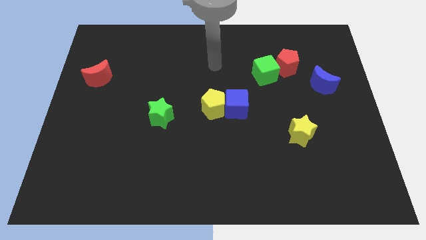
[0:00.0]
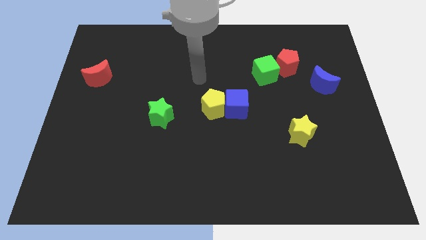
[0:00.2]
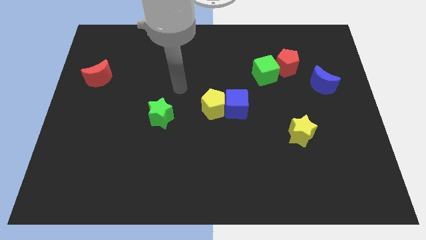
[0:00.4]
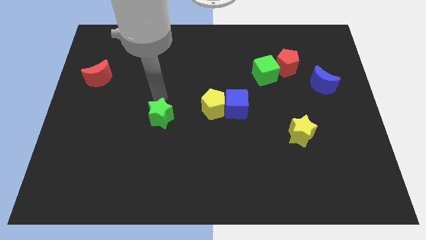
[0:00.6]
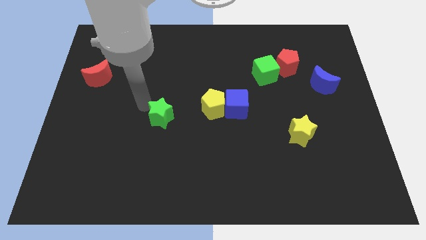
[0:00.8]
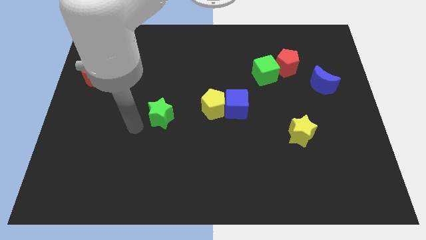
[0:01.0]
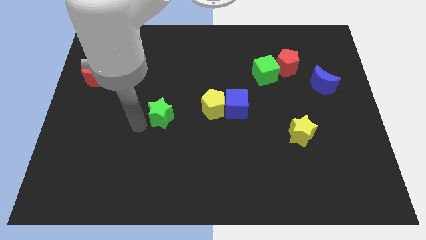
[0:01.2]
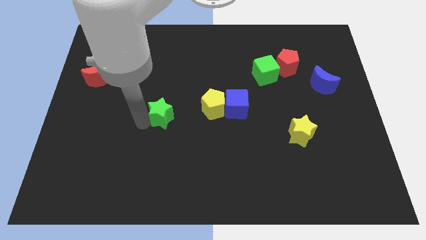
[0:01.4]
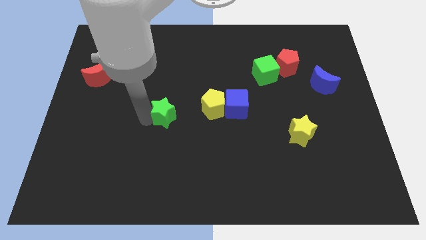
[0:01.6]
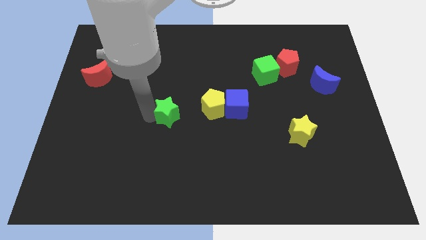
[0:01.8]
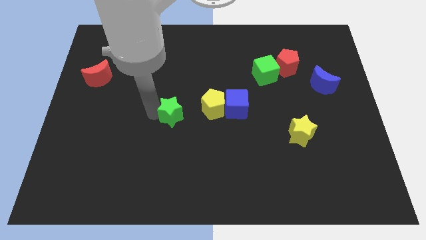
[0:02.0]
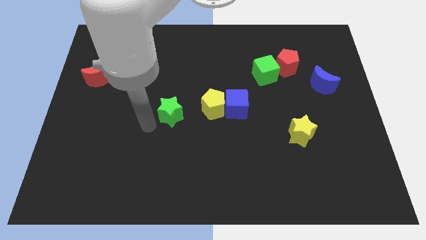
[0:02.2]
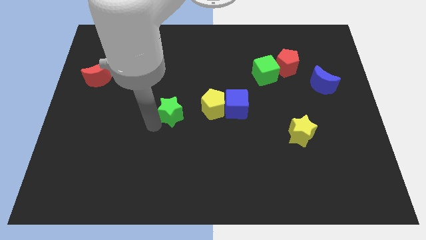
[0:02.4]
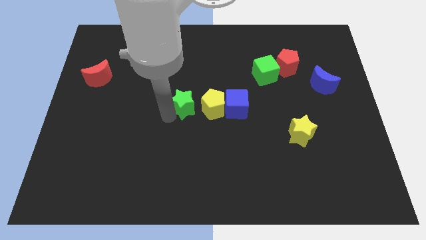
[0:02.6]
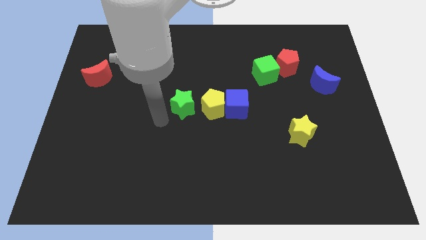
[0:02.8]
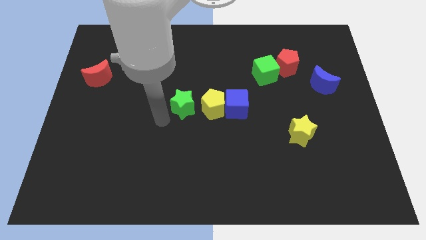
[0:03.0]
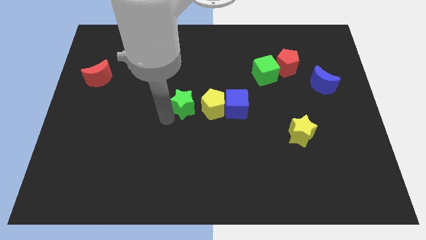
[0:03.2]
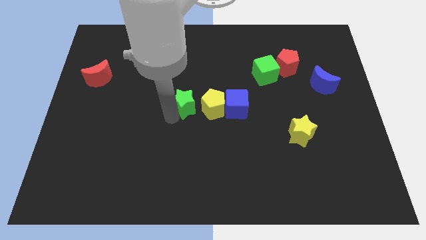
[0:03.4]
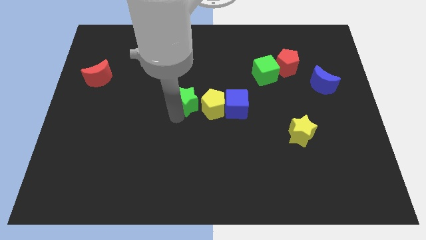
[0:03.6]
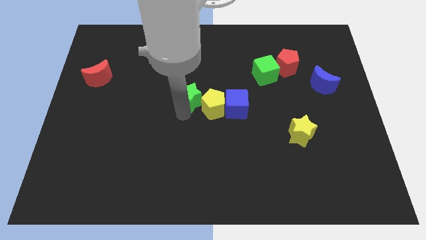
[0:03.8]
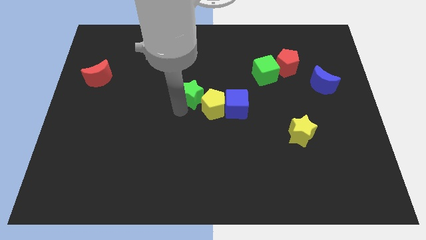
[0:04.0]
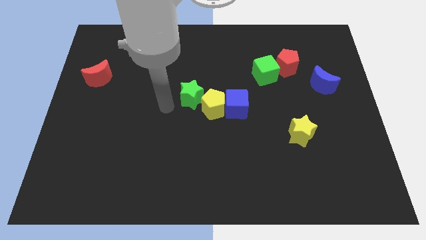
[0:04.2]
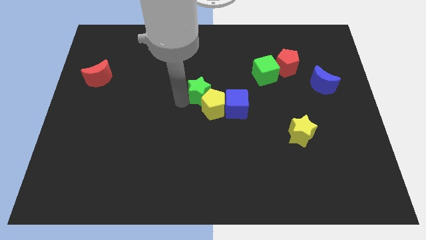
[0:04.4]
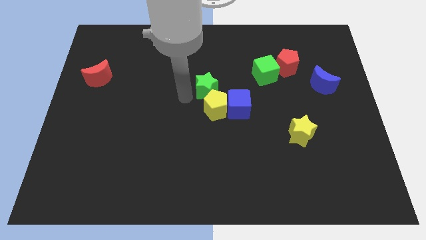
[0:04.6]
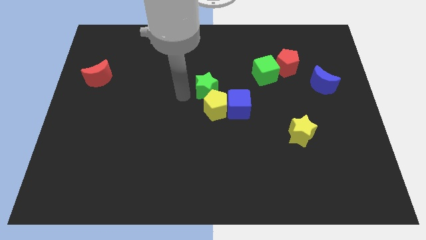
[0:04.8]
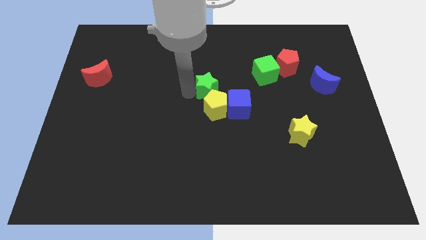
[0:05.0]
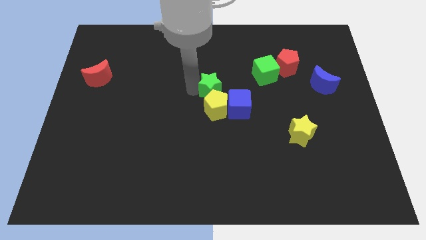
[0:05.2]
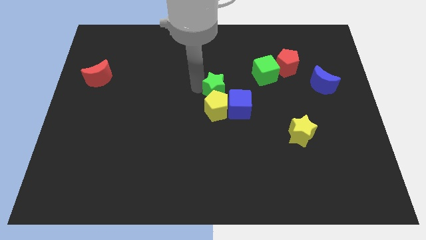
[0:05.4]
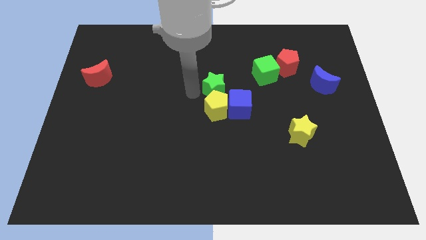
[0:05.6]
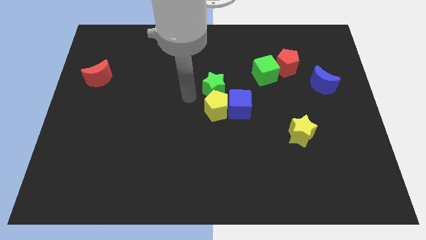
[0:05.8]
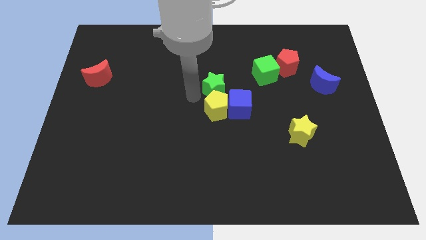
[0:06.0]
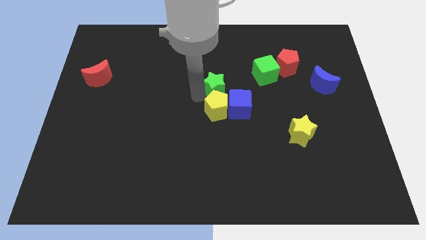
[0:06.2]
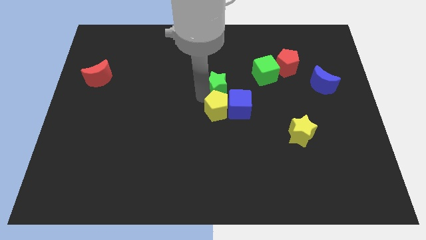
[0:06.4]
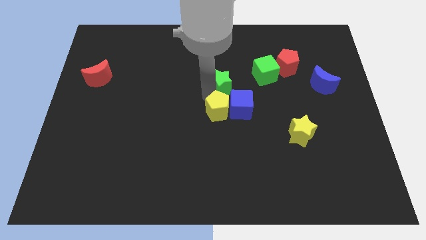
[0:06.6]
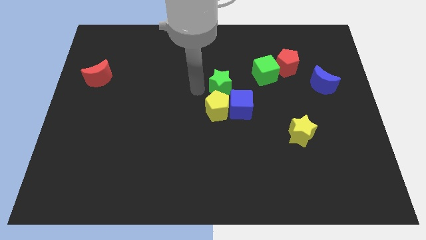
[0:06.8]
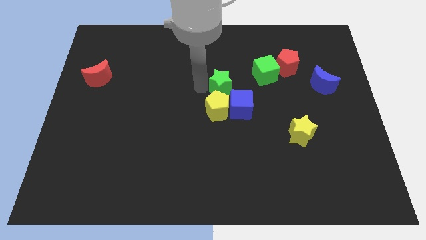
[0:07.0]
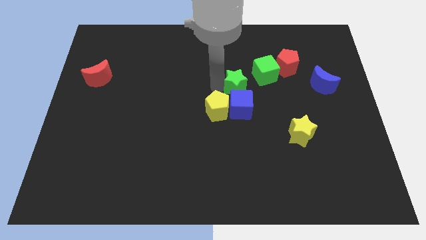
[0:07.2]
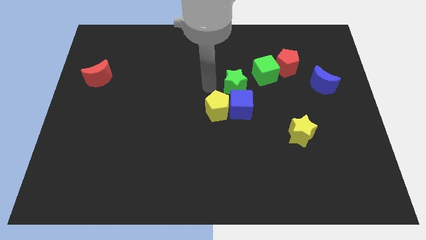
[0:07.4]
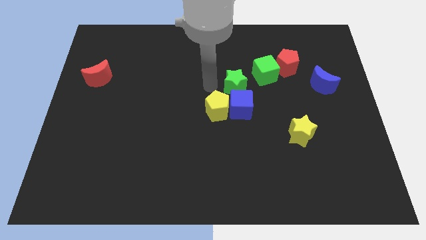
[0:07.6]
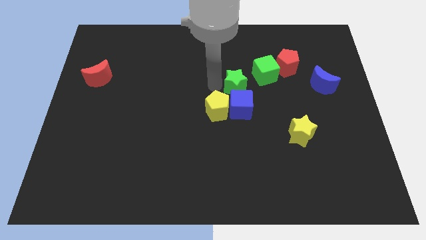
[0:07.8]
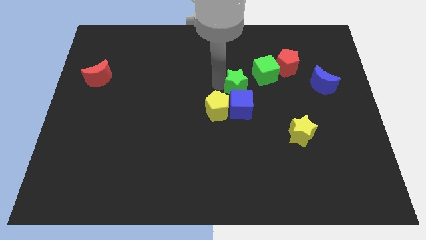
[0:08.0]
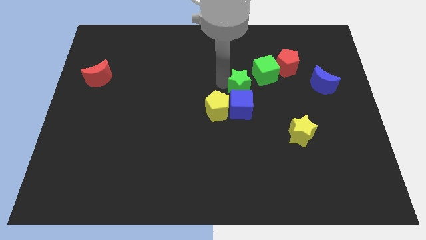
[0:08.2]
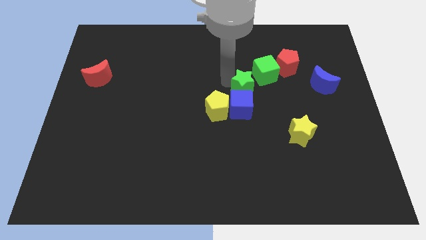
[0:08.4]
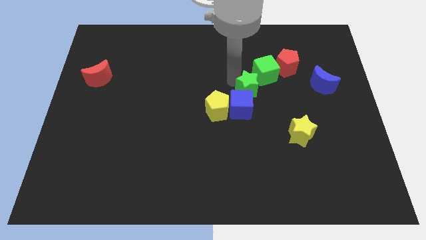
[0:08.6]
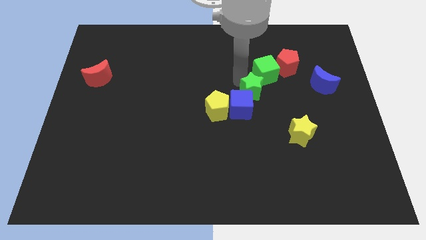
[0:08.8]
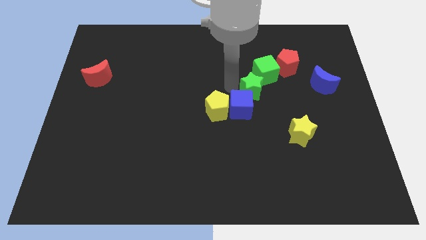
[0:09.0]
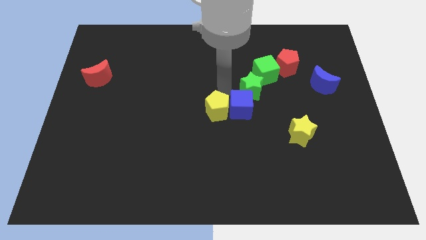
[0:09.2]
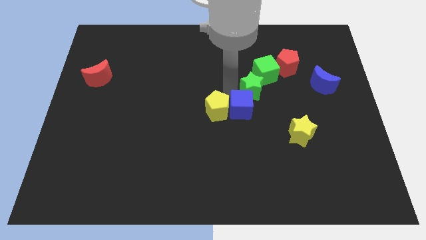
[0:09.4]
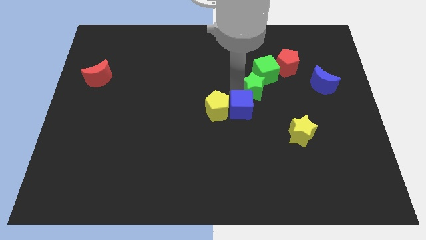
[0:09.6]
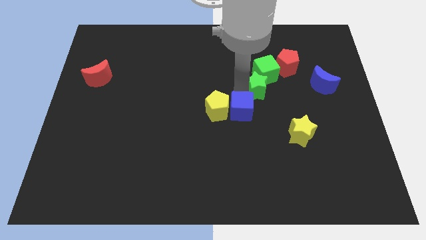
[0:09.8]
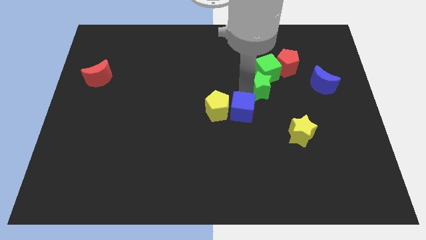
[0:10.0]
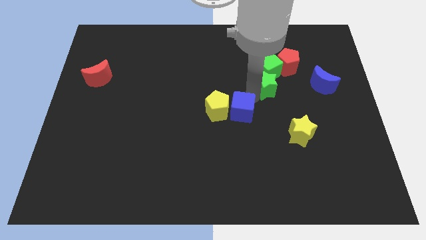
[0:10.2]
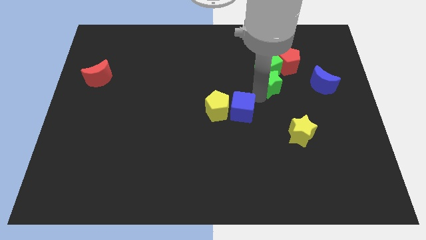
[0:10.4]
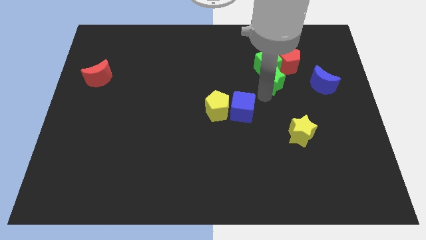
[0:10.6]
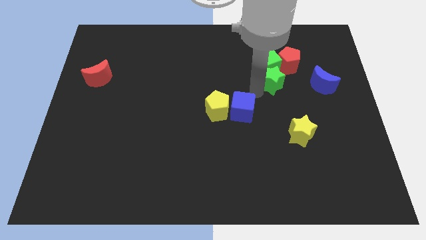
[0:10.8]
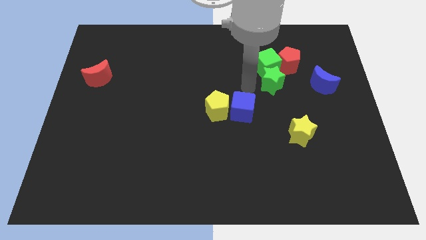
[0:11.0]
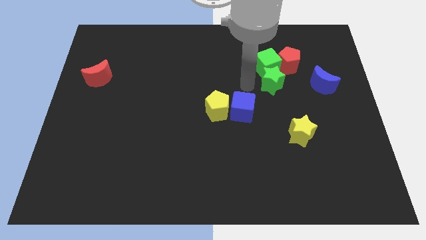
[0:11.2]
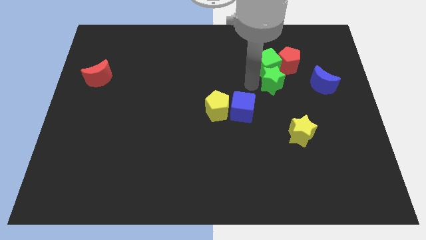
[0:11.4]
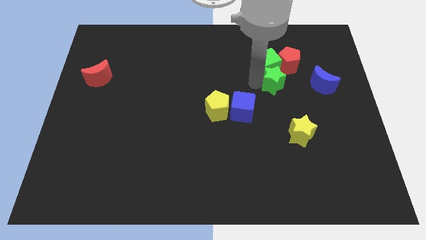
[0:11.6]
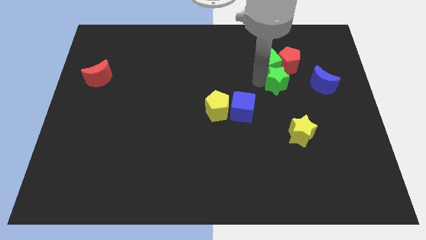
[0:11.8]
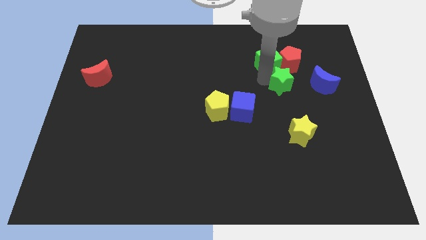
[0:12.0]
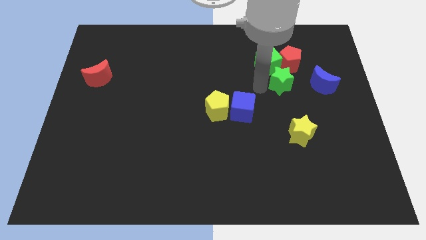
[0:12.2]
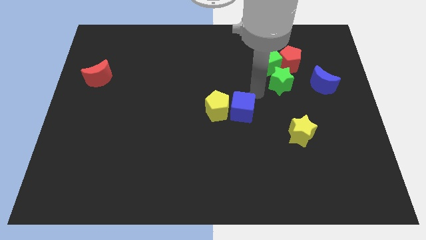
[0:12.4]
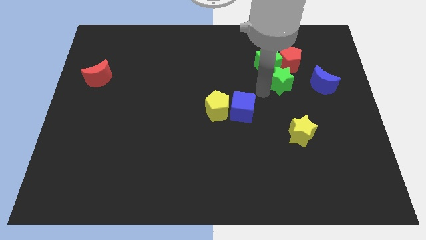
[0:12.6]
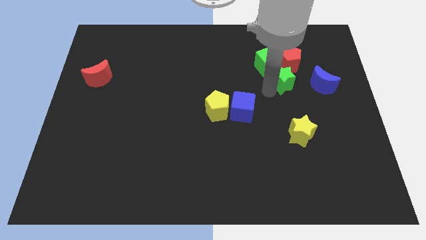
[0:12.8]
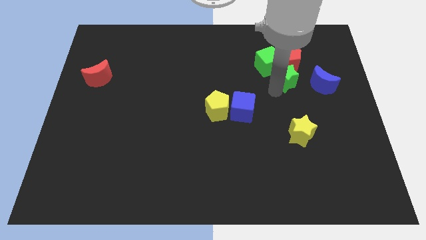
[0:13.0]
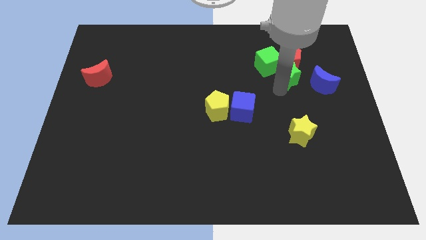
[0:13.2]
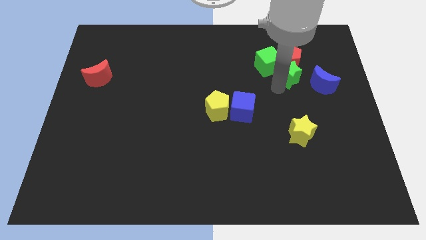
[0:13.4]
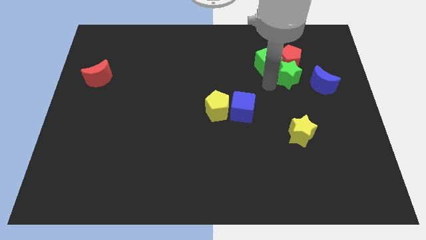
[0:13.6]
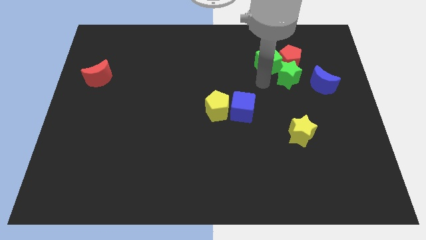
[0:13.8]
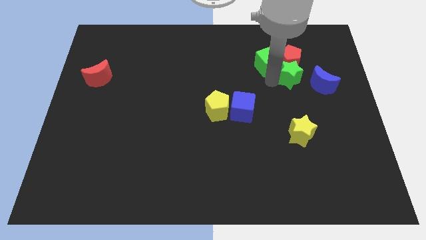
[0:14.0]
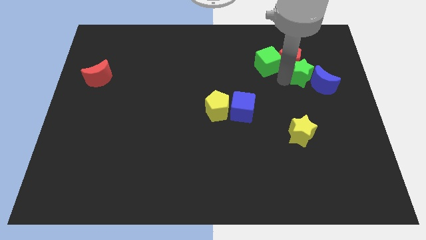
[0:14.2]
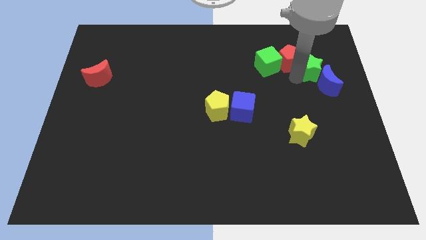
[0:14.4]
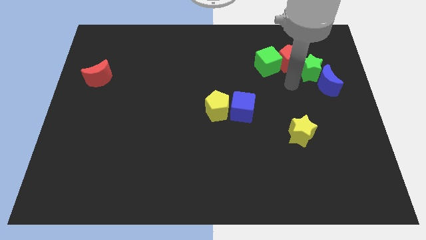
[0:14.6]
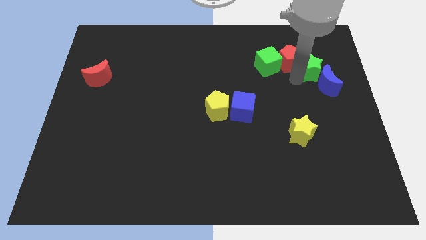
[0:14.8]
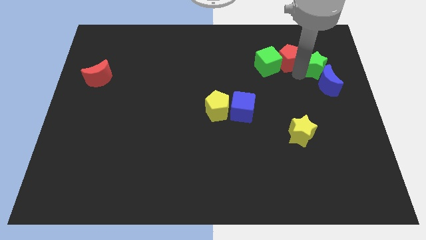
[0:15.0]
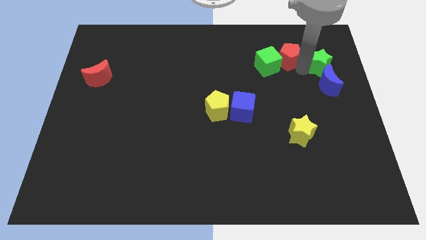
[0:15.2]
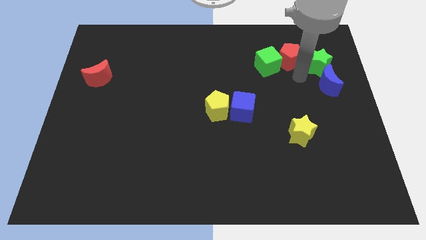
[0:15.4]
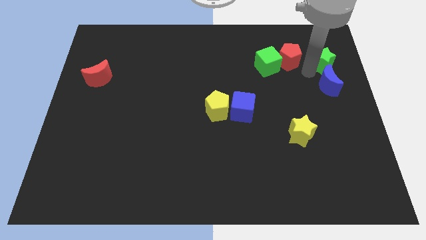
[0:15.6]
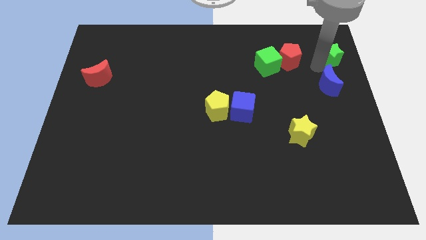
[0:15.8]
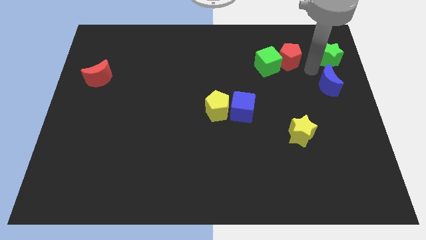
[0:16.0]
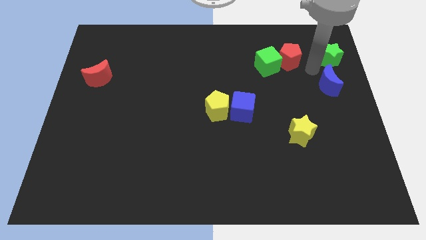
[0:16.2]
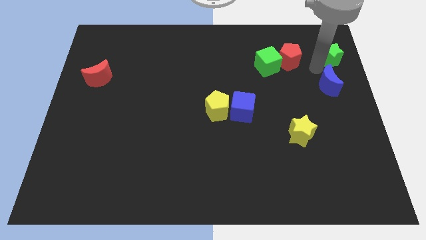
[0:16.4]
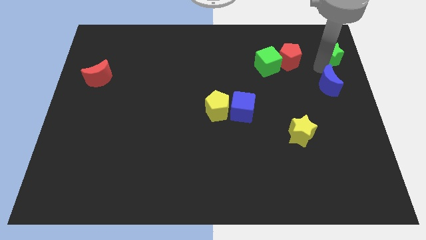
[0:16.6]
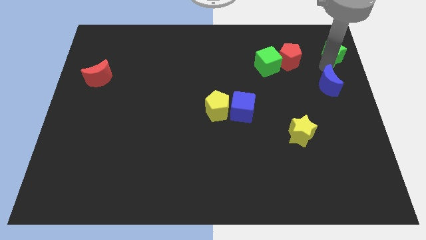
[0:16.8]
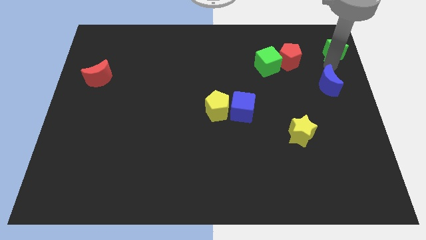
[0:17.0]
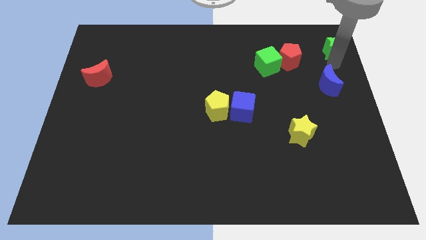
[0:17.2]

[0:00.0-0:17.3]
slide the green star to the top right
